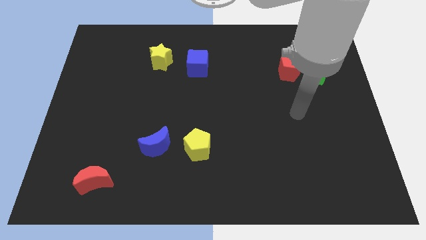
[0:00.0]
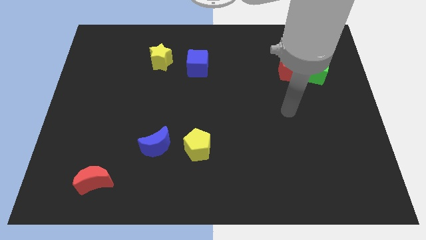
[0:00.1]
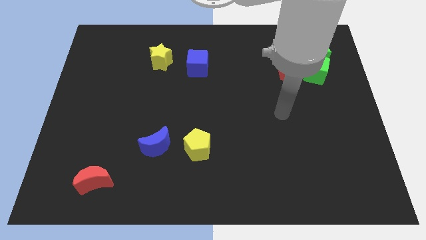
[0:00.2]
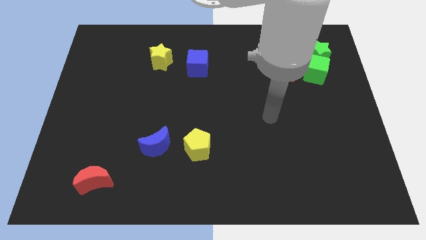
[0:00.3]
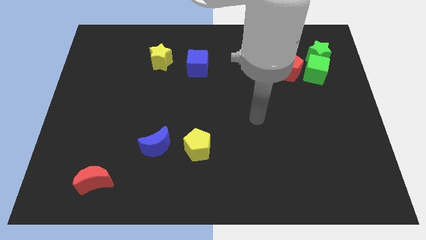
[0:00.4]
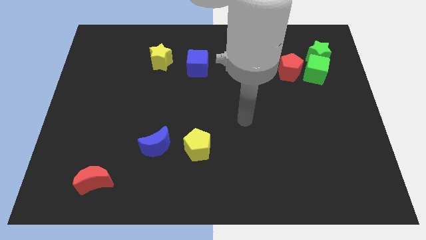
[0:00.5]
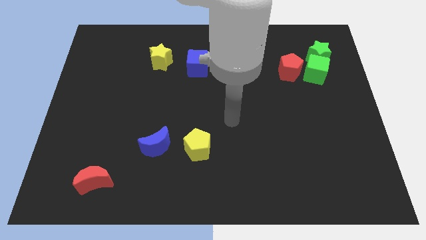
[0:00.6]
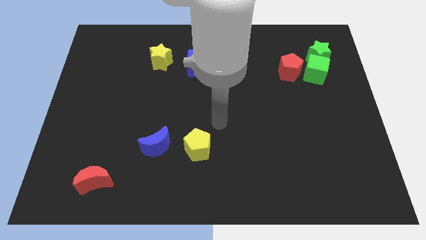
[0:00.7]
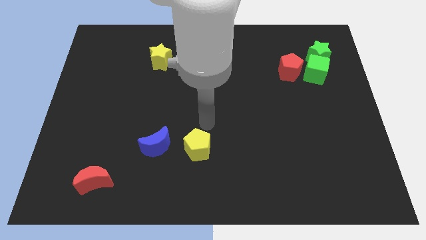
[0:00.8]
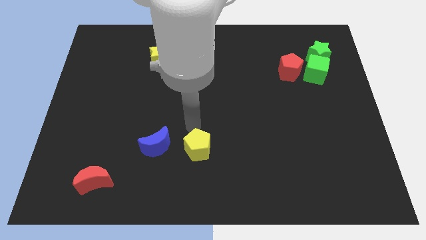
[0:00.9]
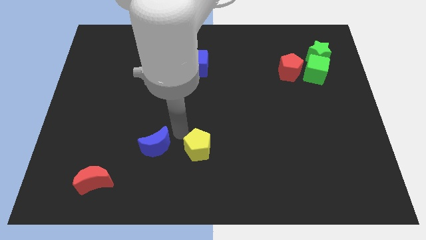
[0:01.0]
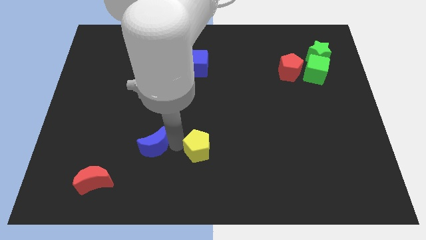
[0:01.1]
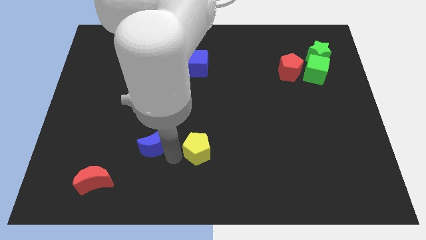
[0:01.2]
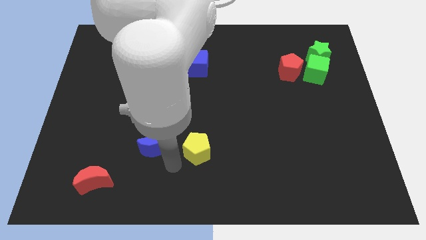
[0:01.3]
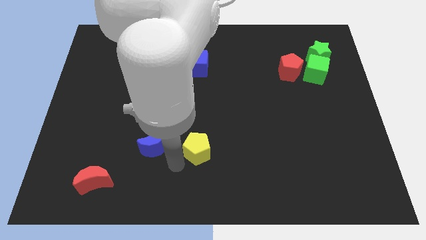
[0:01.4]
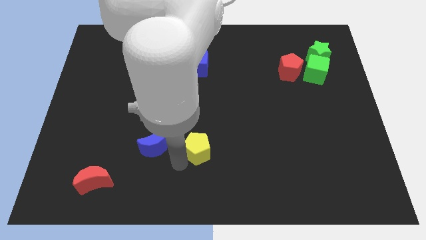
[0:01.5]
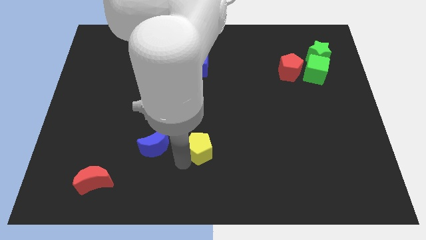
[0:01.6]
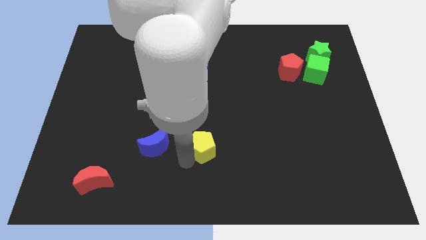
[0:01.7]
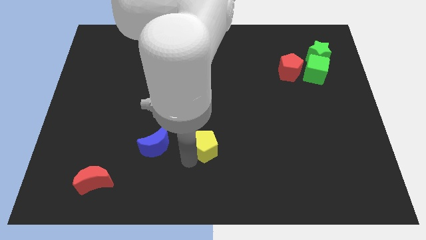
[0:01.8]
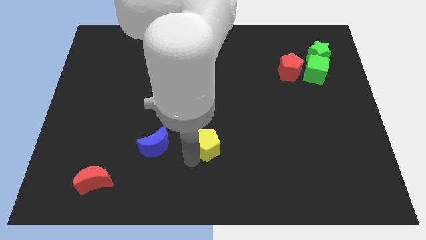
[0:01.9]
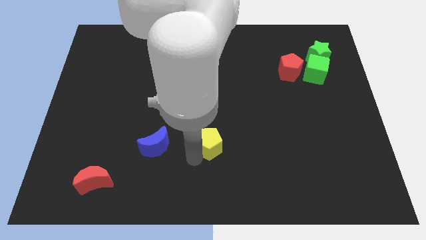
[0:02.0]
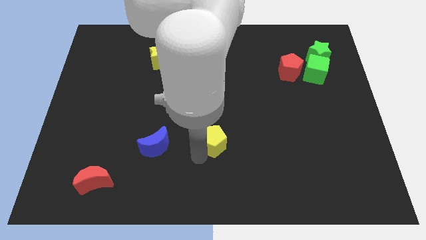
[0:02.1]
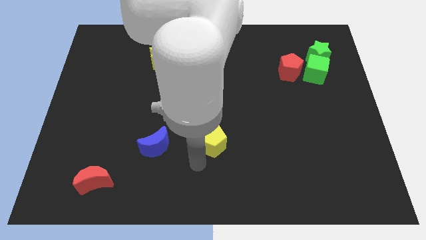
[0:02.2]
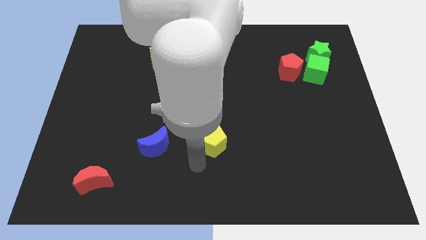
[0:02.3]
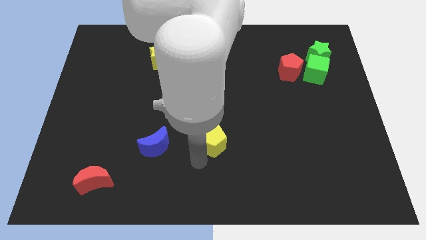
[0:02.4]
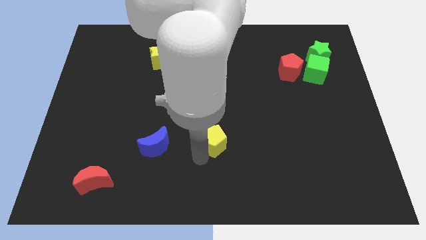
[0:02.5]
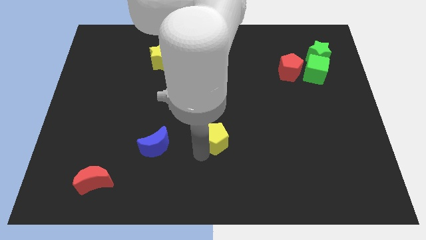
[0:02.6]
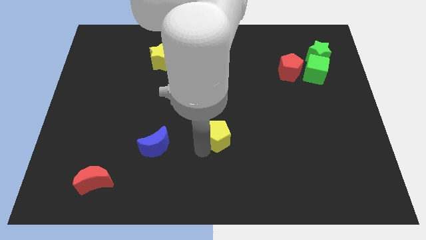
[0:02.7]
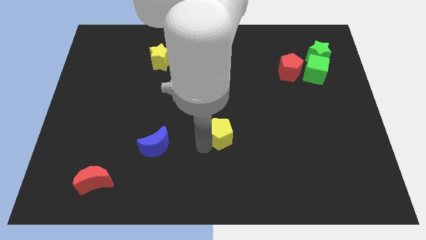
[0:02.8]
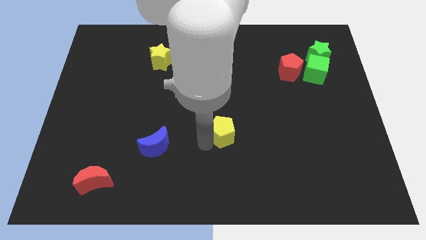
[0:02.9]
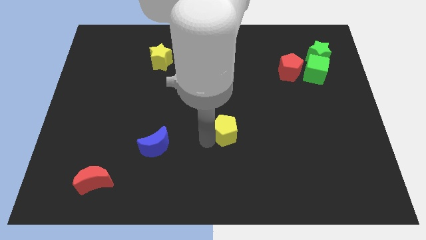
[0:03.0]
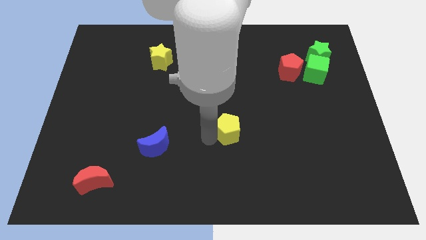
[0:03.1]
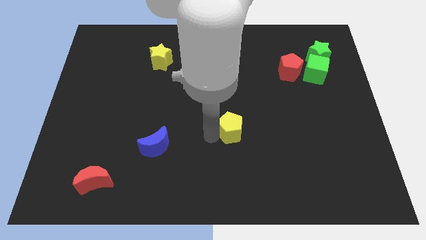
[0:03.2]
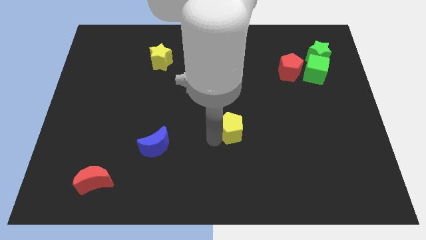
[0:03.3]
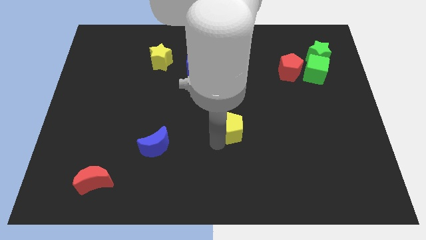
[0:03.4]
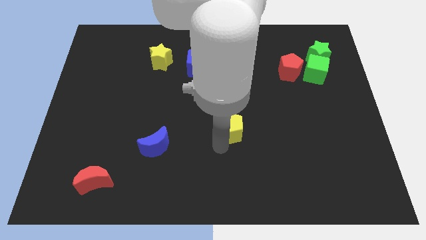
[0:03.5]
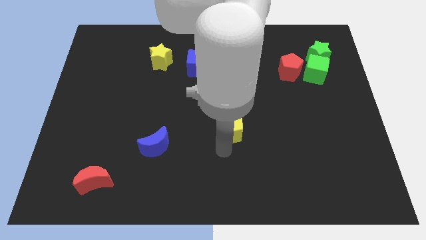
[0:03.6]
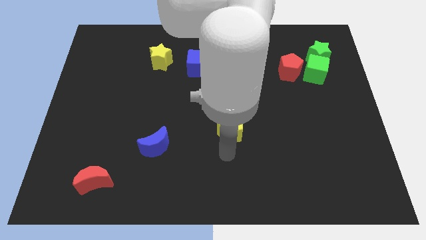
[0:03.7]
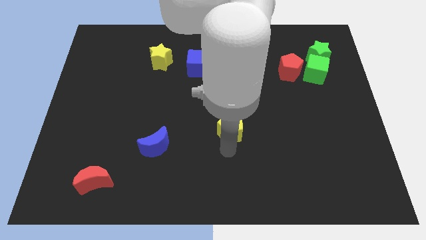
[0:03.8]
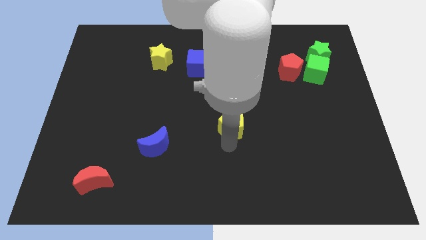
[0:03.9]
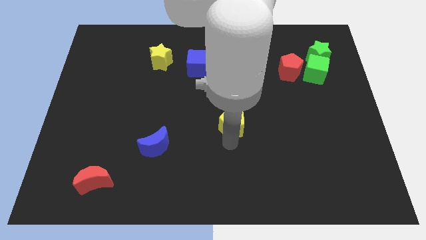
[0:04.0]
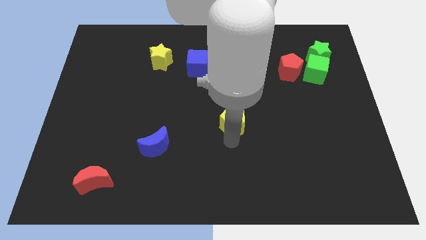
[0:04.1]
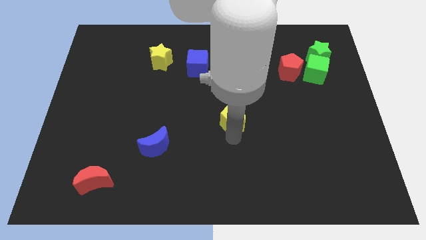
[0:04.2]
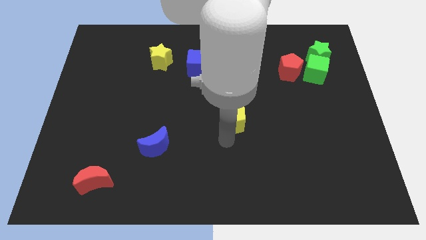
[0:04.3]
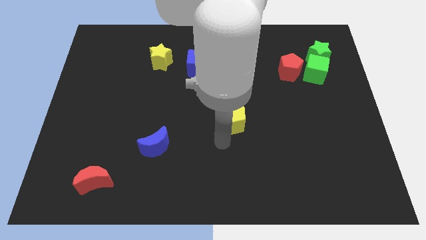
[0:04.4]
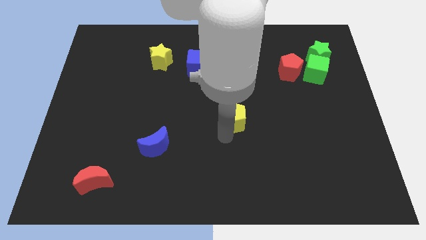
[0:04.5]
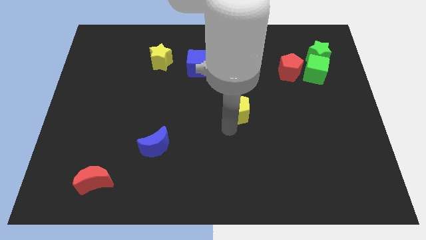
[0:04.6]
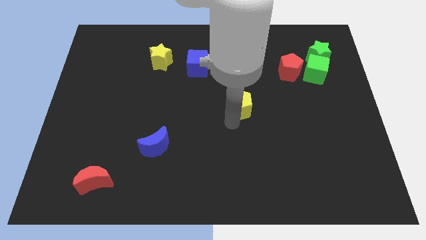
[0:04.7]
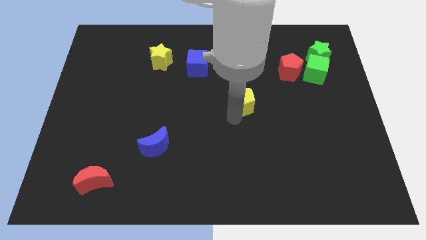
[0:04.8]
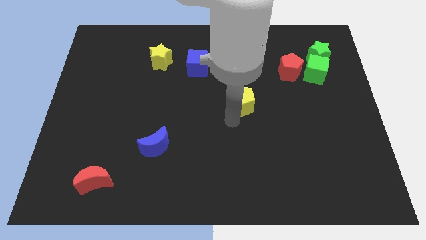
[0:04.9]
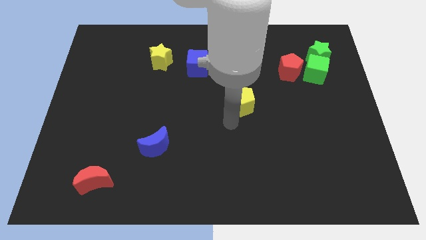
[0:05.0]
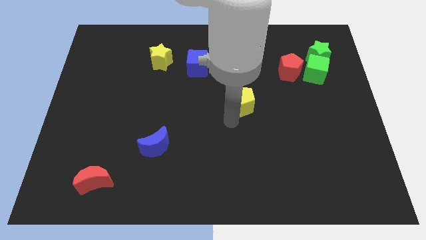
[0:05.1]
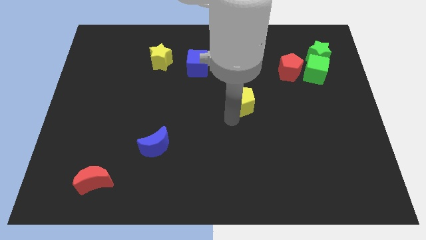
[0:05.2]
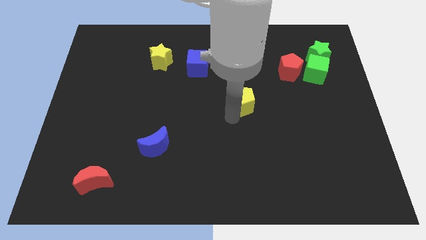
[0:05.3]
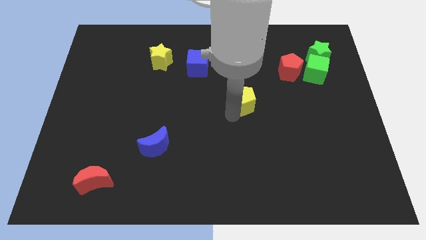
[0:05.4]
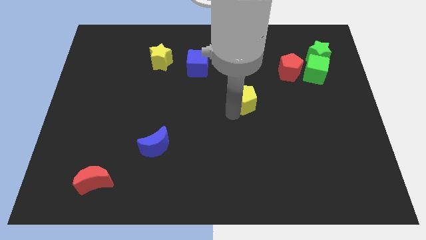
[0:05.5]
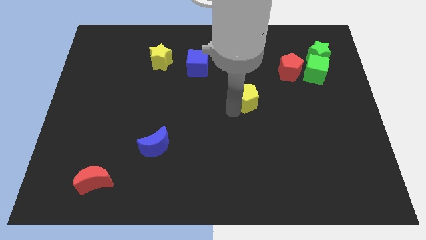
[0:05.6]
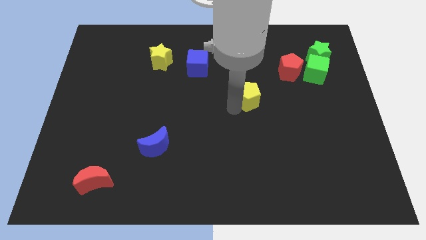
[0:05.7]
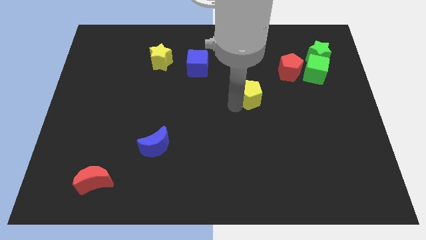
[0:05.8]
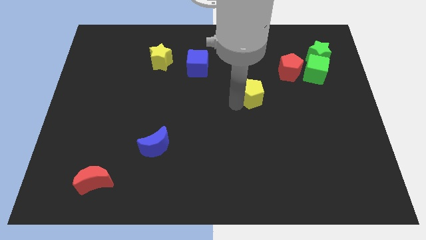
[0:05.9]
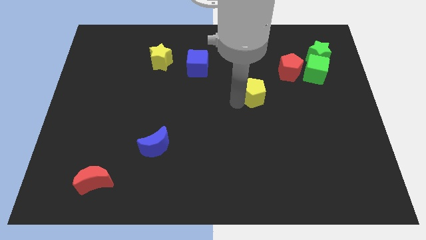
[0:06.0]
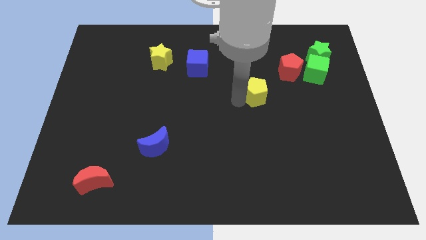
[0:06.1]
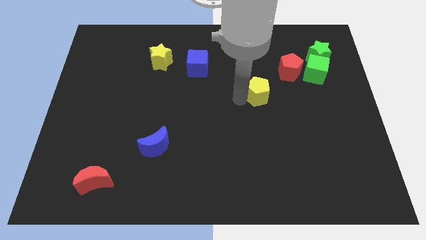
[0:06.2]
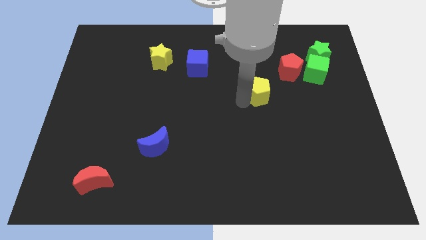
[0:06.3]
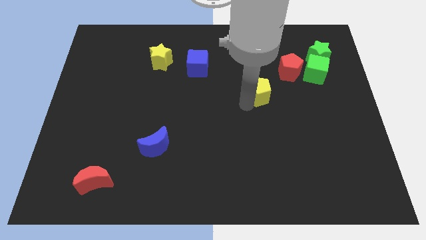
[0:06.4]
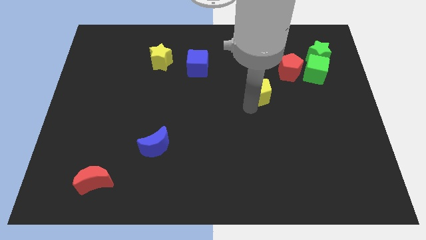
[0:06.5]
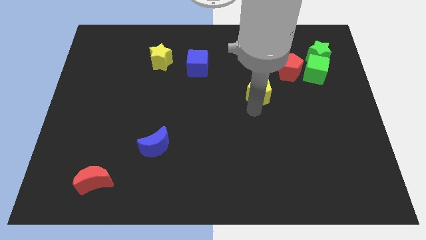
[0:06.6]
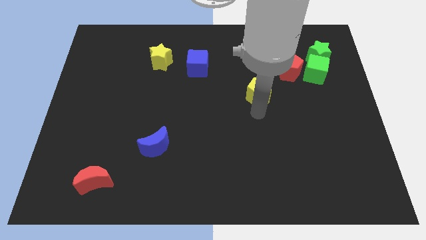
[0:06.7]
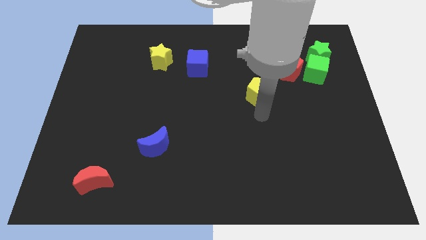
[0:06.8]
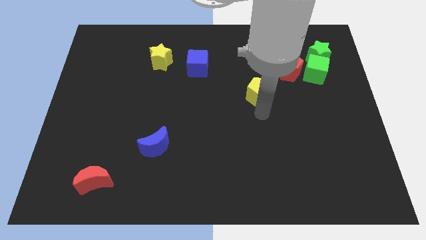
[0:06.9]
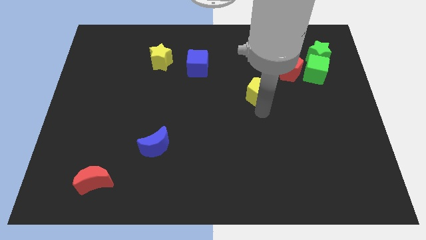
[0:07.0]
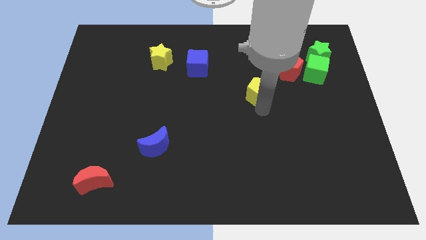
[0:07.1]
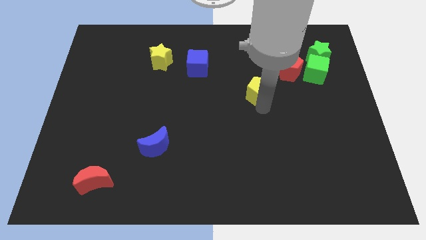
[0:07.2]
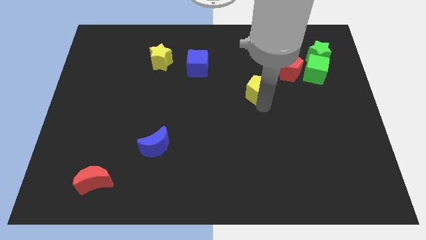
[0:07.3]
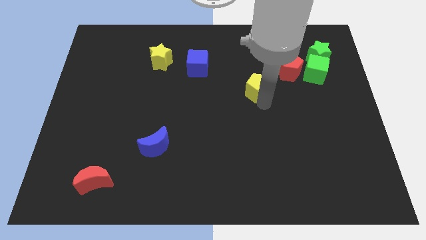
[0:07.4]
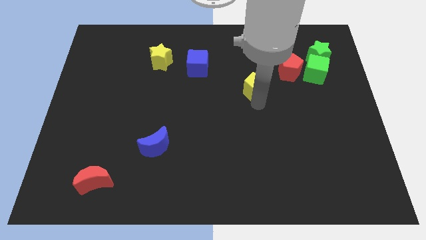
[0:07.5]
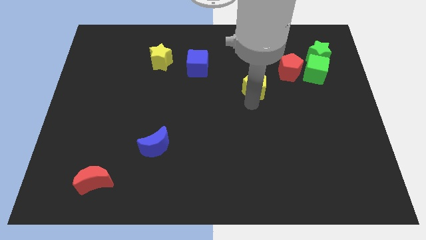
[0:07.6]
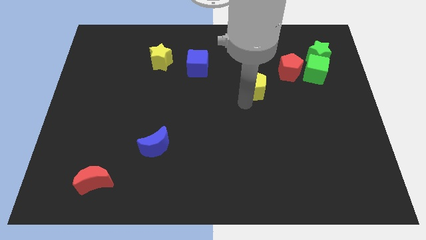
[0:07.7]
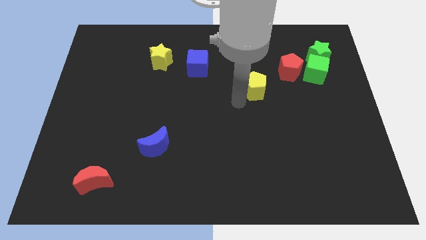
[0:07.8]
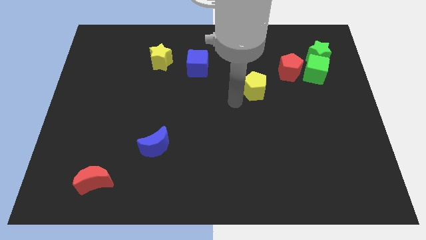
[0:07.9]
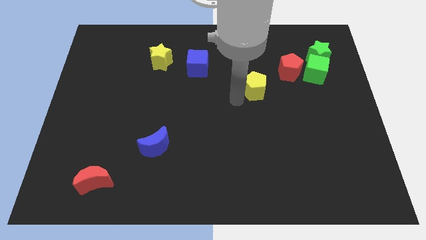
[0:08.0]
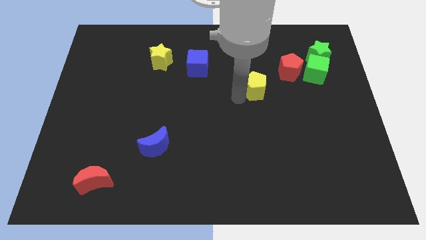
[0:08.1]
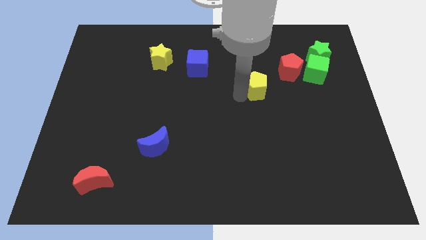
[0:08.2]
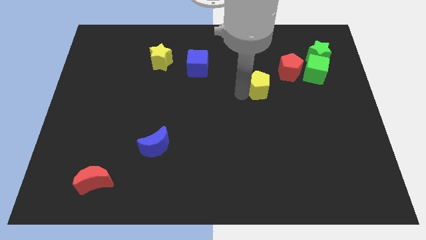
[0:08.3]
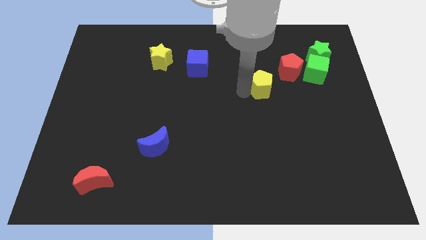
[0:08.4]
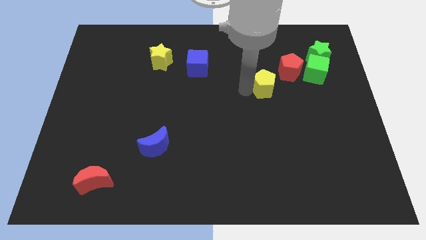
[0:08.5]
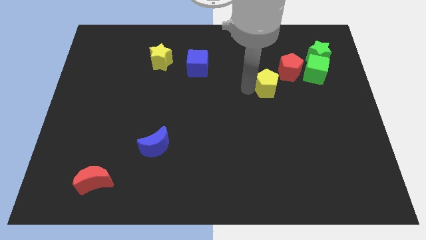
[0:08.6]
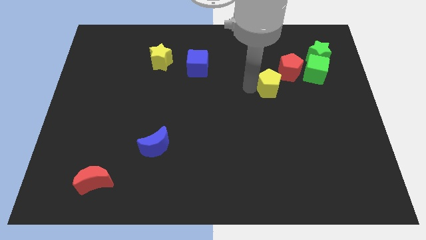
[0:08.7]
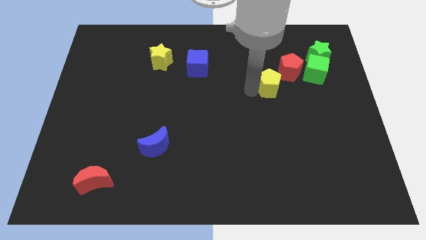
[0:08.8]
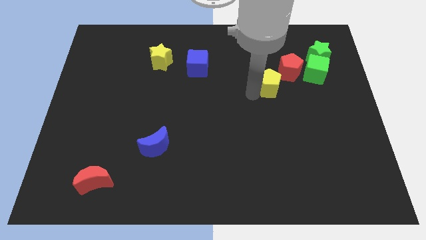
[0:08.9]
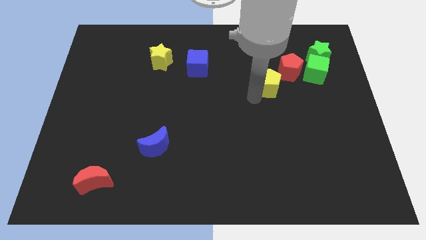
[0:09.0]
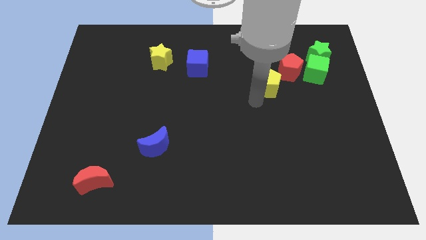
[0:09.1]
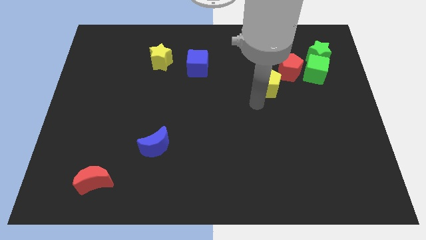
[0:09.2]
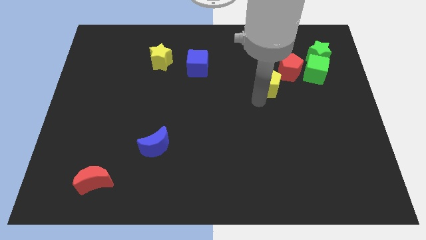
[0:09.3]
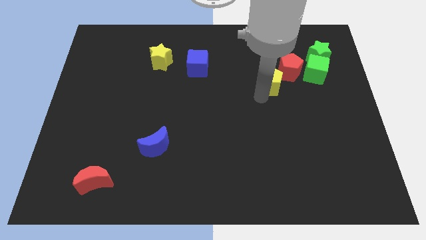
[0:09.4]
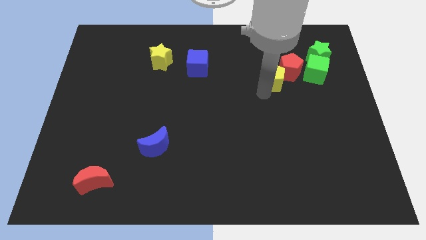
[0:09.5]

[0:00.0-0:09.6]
move the yellow pentagon towards the red pentagon
